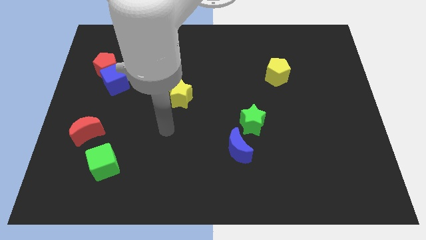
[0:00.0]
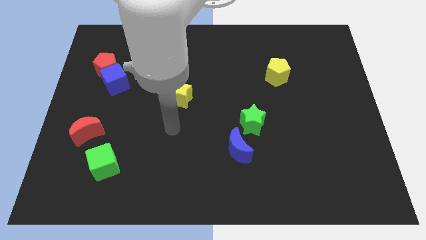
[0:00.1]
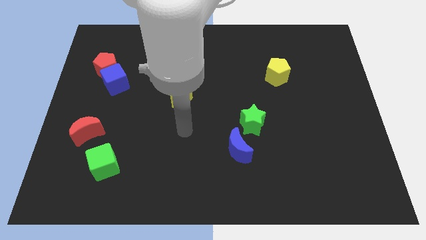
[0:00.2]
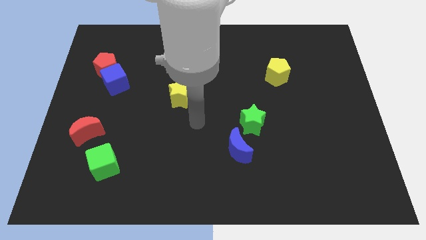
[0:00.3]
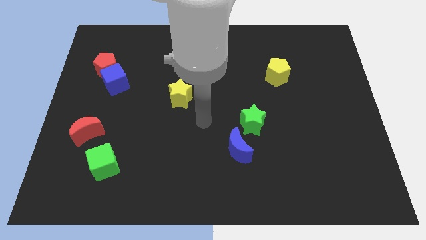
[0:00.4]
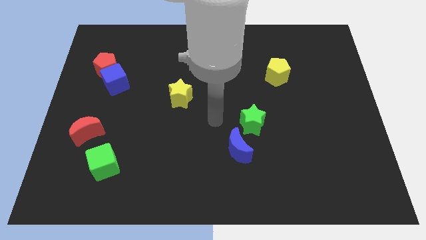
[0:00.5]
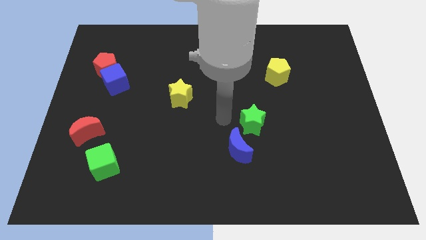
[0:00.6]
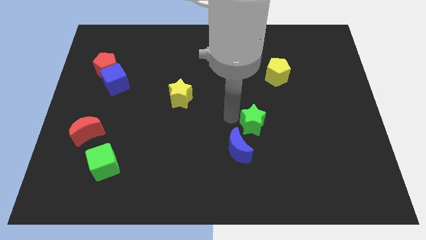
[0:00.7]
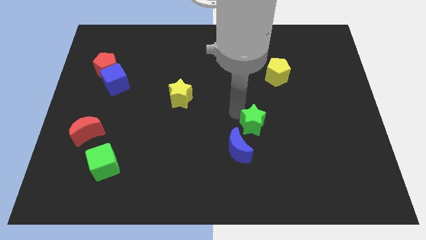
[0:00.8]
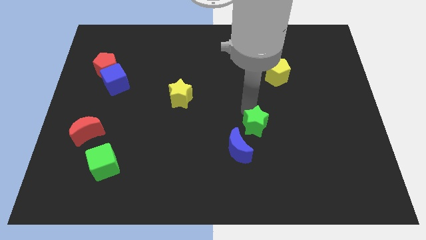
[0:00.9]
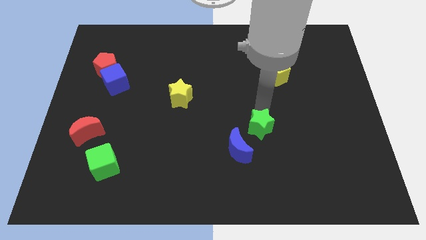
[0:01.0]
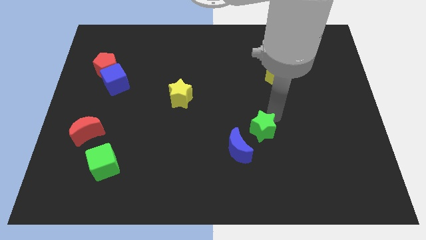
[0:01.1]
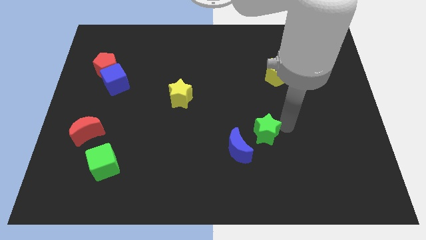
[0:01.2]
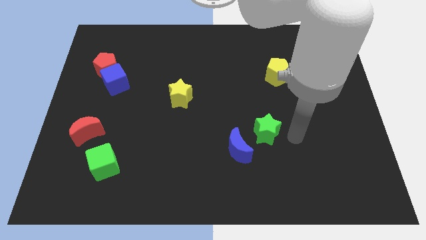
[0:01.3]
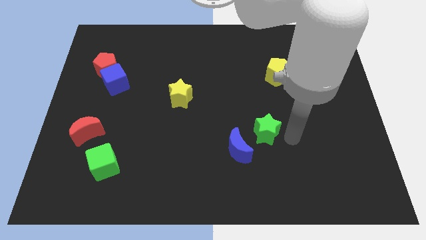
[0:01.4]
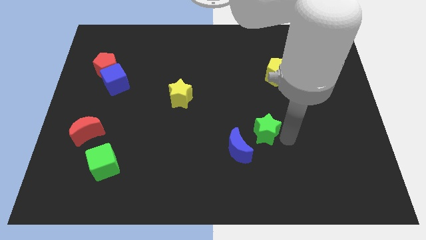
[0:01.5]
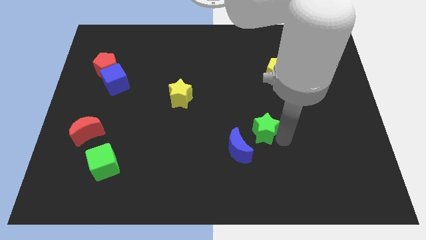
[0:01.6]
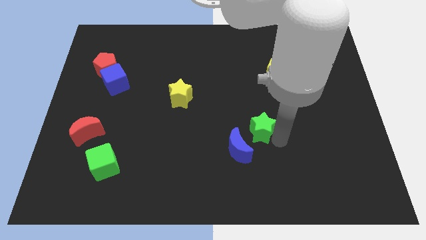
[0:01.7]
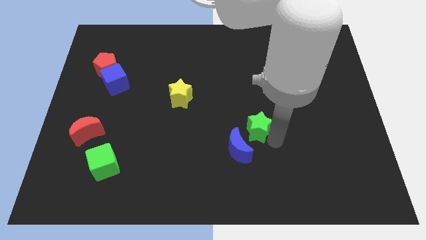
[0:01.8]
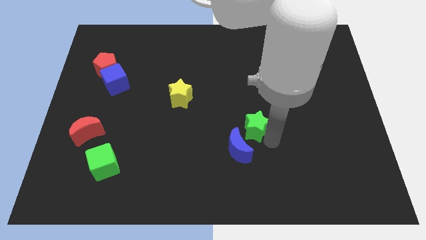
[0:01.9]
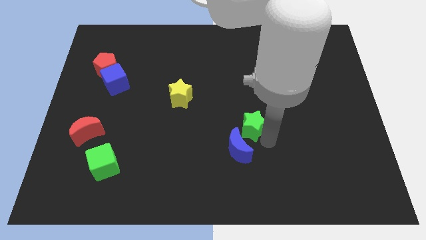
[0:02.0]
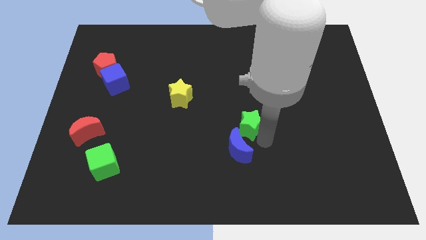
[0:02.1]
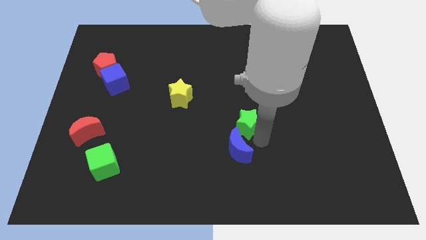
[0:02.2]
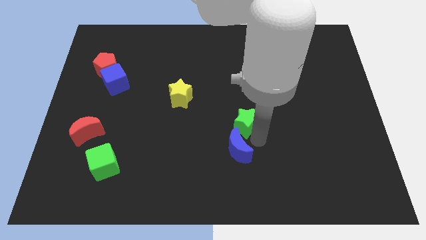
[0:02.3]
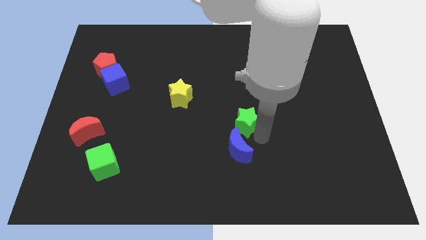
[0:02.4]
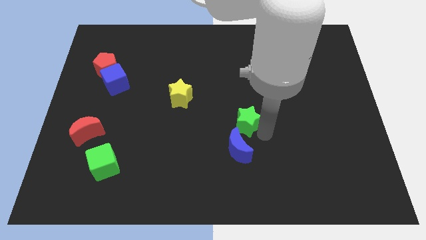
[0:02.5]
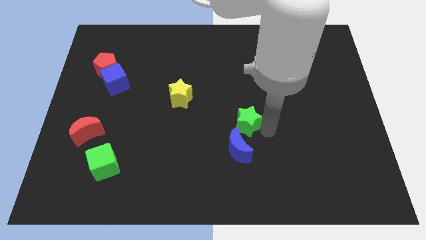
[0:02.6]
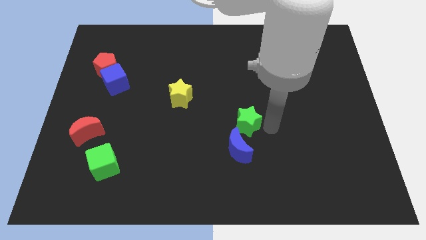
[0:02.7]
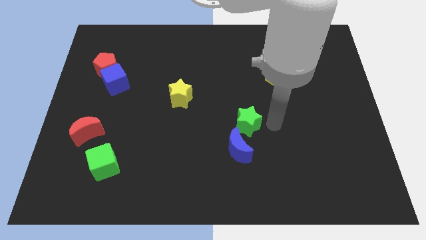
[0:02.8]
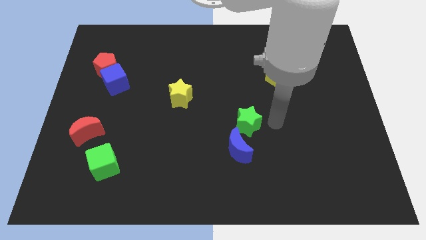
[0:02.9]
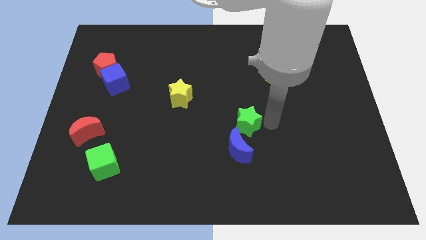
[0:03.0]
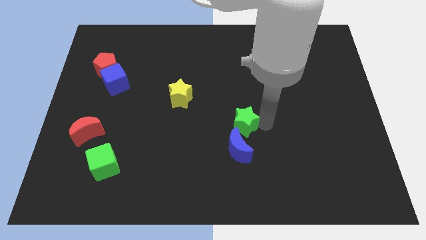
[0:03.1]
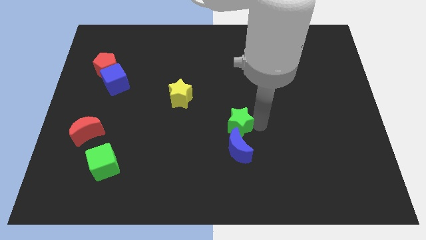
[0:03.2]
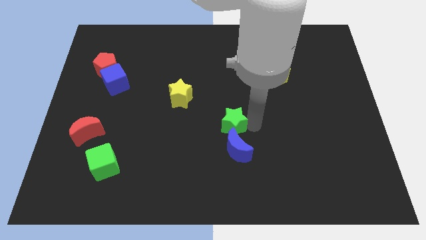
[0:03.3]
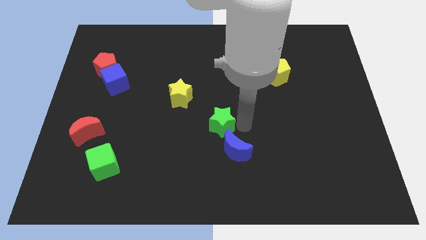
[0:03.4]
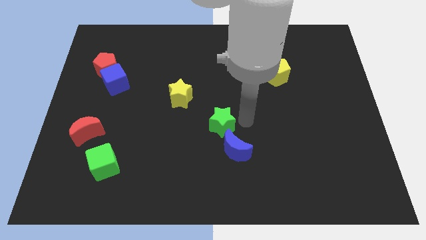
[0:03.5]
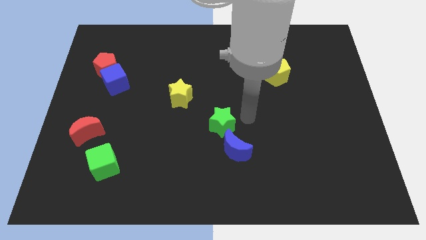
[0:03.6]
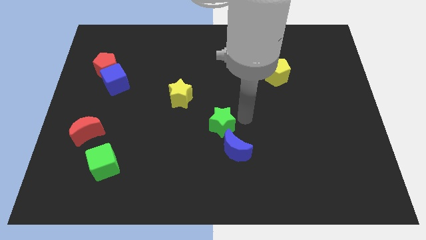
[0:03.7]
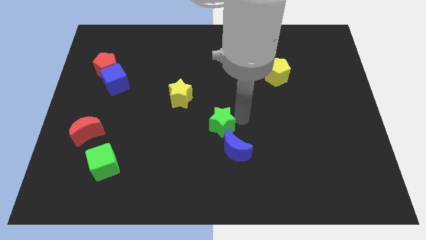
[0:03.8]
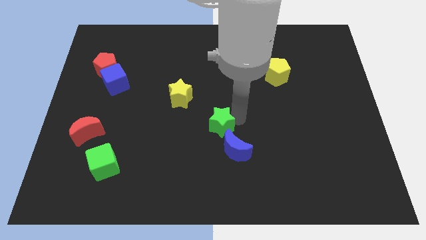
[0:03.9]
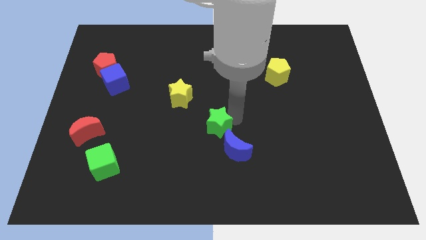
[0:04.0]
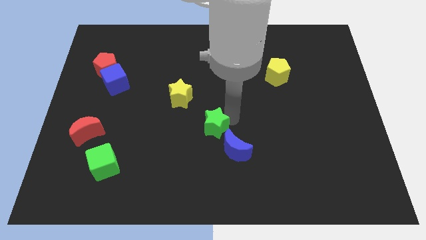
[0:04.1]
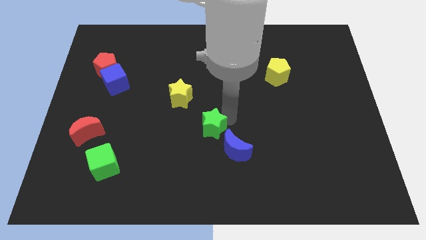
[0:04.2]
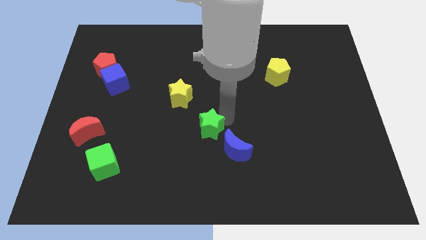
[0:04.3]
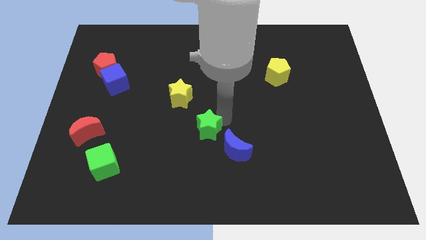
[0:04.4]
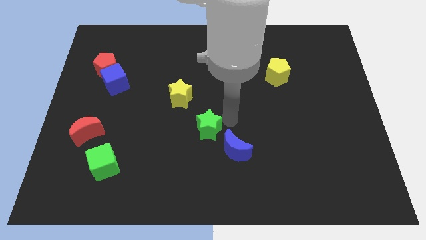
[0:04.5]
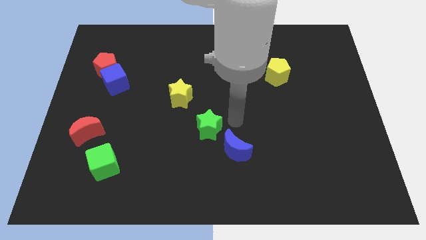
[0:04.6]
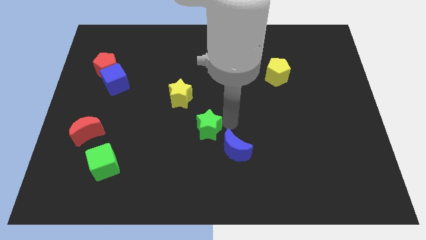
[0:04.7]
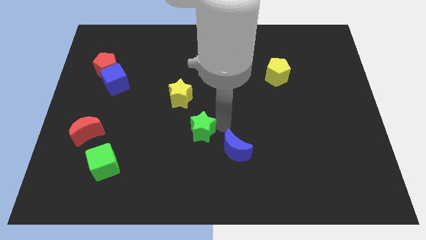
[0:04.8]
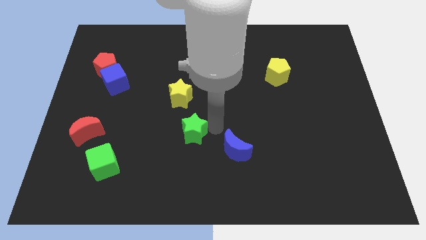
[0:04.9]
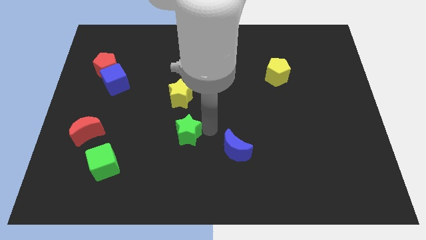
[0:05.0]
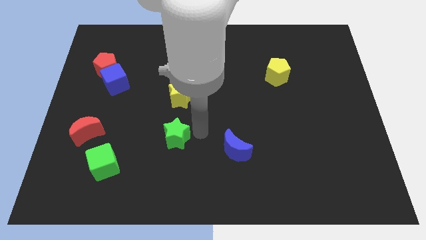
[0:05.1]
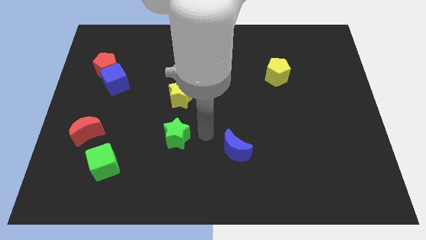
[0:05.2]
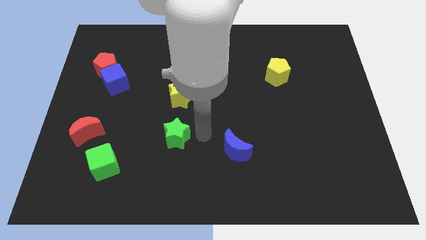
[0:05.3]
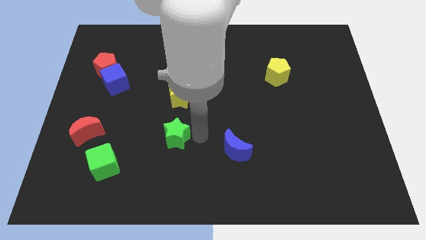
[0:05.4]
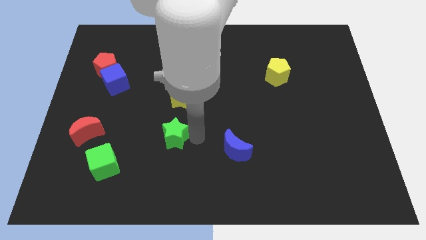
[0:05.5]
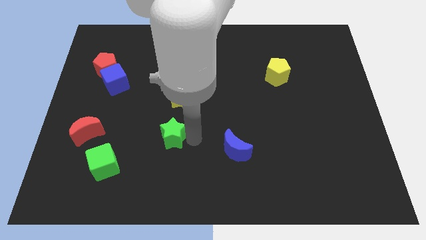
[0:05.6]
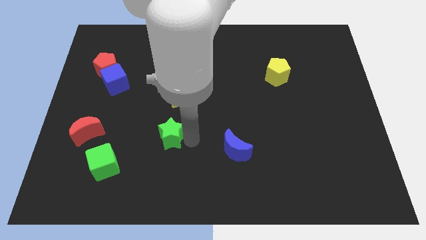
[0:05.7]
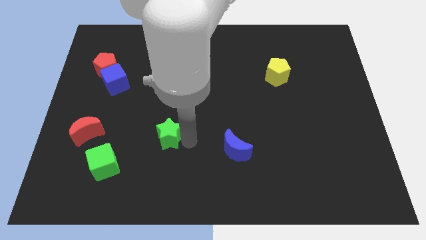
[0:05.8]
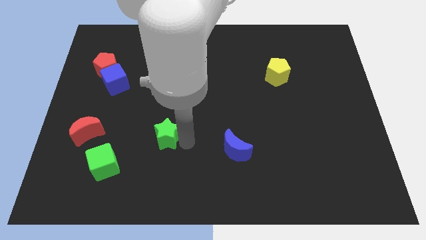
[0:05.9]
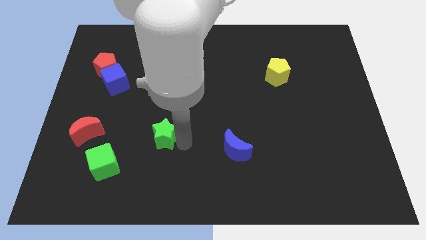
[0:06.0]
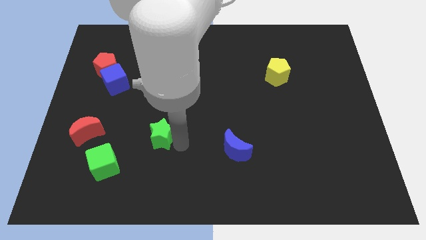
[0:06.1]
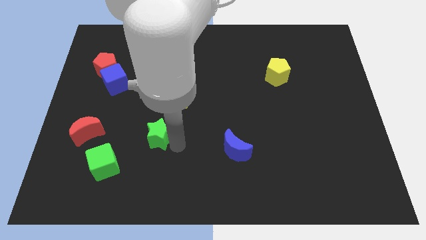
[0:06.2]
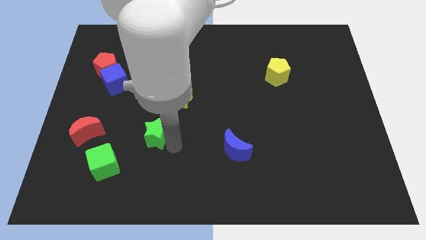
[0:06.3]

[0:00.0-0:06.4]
put the green star diagonally up and to the right of the green cube

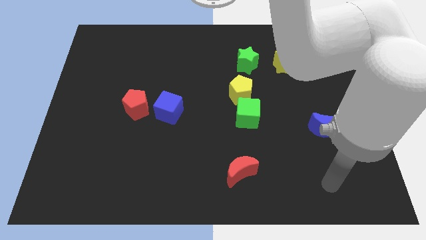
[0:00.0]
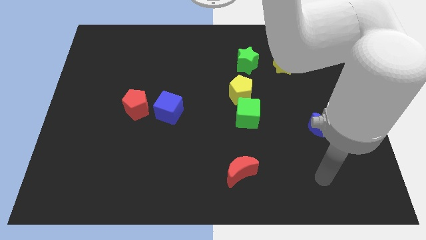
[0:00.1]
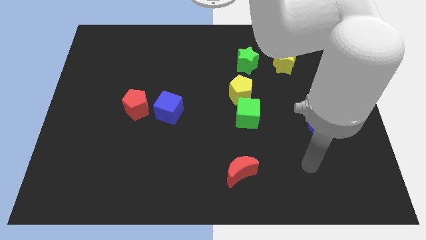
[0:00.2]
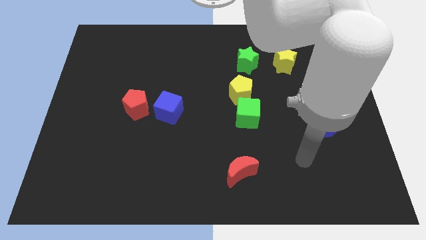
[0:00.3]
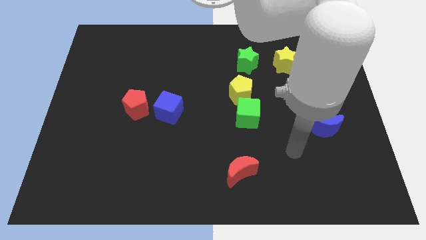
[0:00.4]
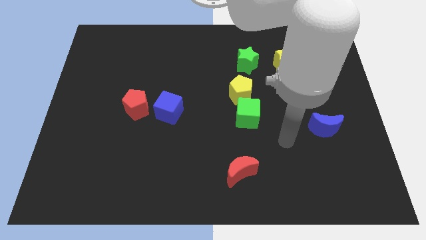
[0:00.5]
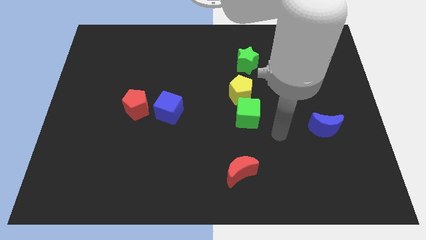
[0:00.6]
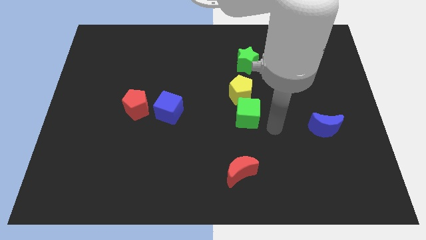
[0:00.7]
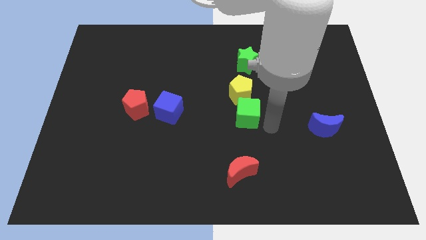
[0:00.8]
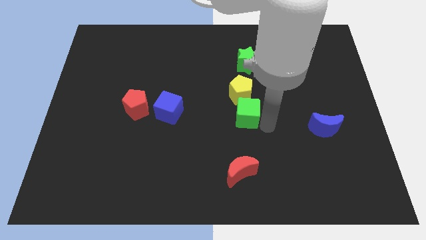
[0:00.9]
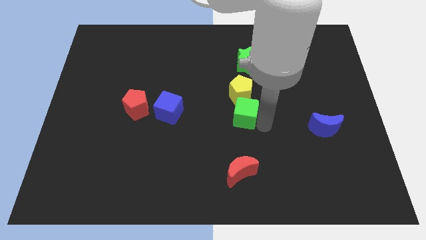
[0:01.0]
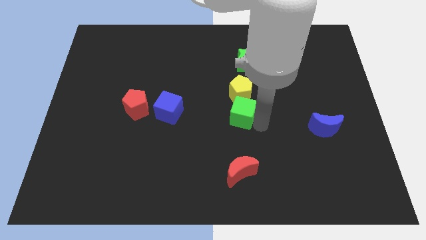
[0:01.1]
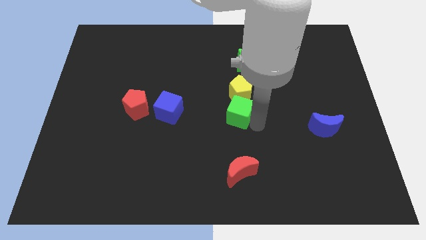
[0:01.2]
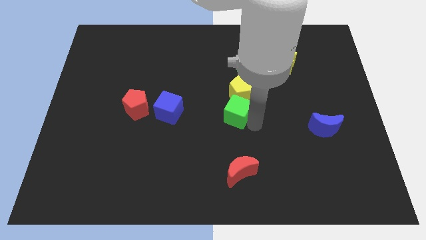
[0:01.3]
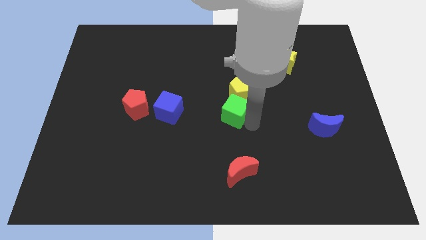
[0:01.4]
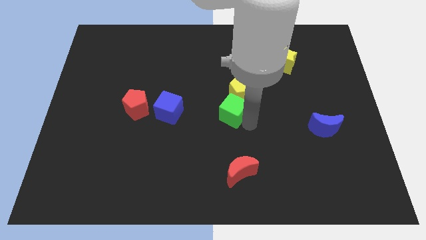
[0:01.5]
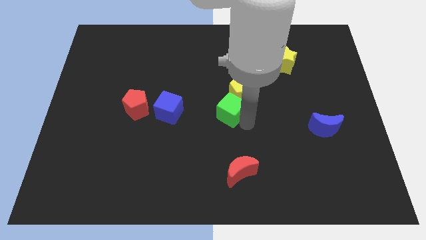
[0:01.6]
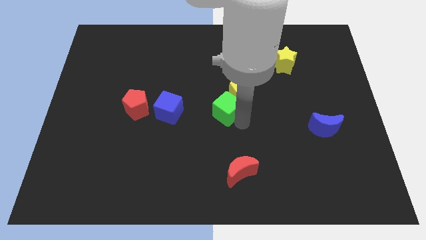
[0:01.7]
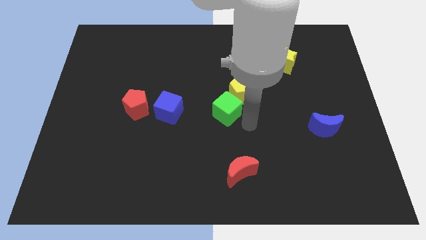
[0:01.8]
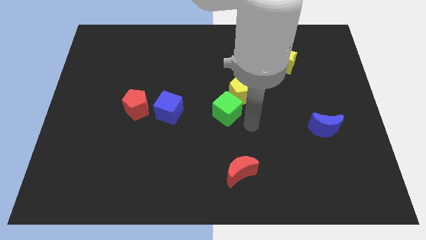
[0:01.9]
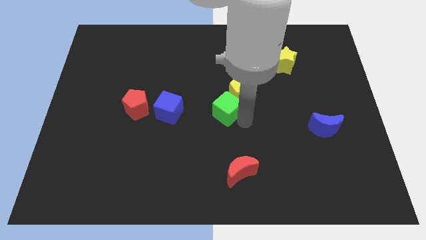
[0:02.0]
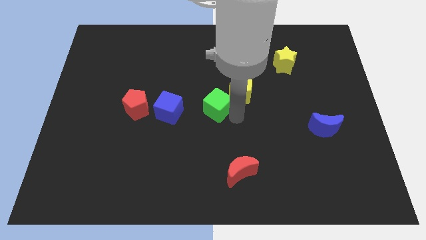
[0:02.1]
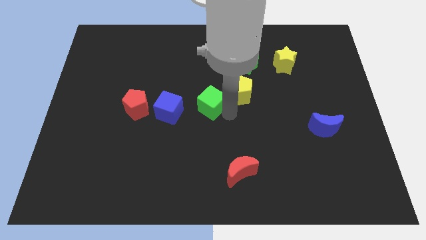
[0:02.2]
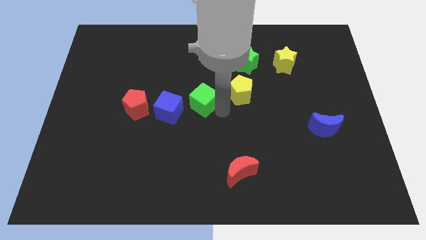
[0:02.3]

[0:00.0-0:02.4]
put the green cube to the top right side of the blue cube
